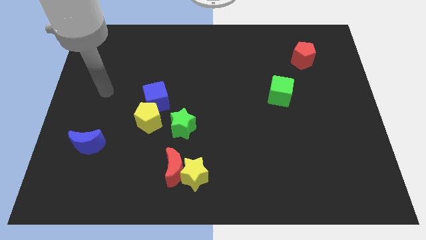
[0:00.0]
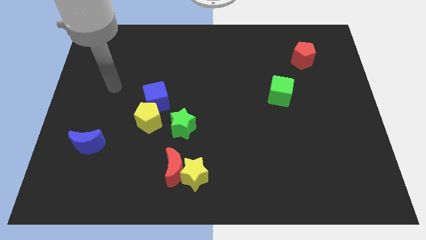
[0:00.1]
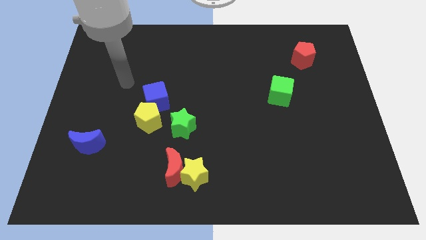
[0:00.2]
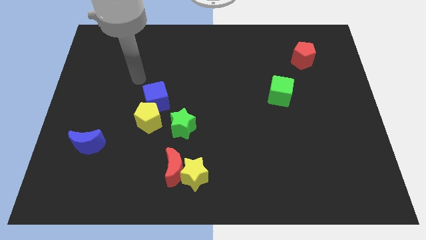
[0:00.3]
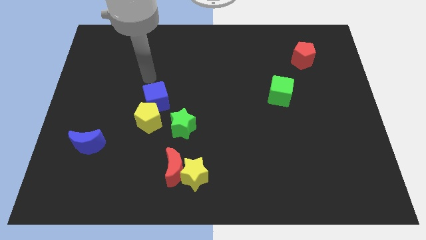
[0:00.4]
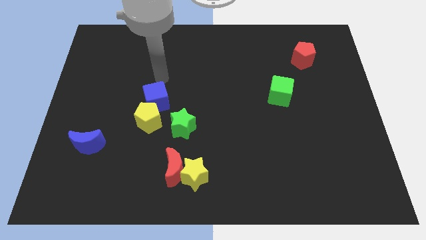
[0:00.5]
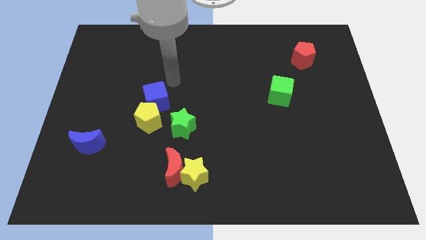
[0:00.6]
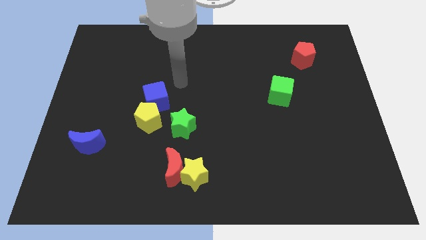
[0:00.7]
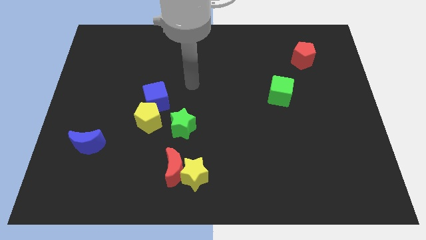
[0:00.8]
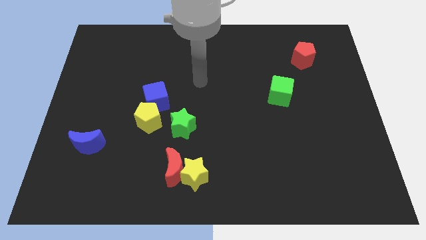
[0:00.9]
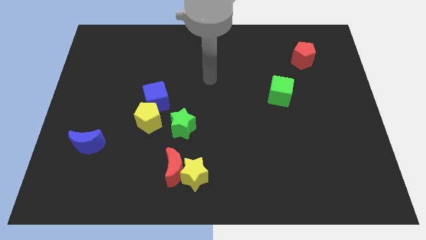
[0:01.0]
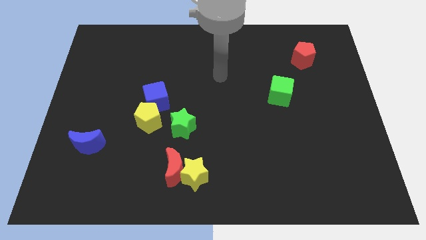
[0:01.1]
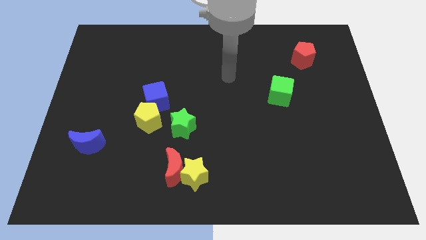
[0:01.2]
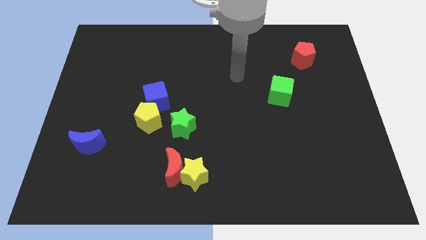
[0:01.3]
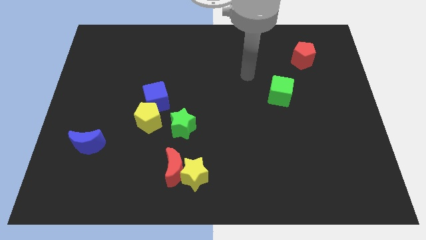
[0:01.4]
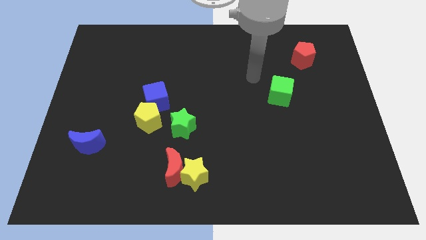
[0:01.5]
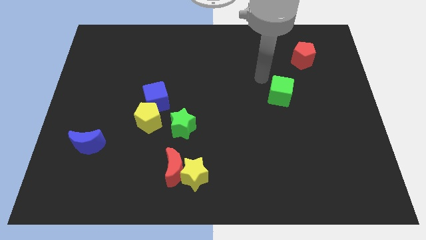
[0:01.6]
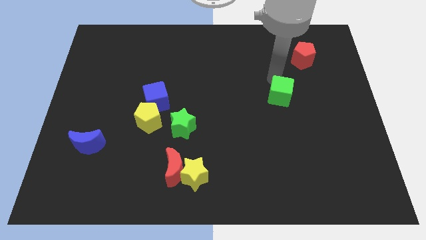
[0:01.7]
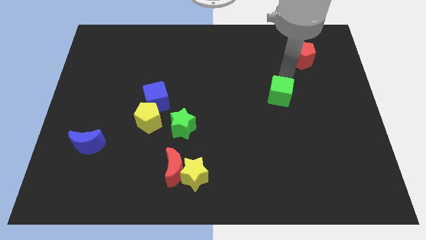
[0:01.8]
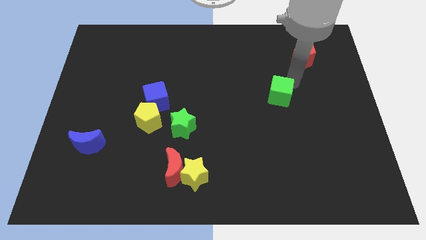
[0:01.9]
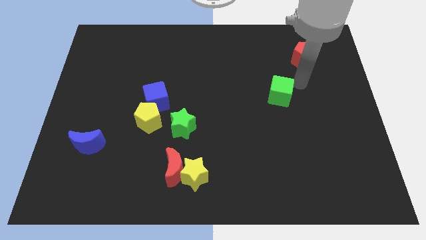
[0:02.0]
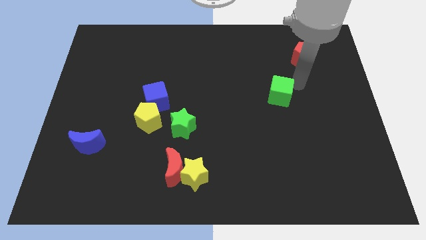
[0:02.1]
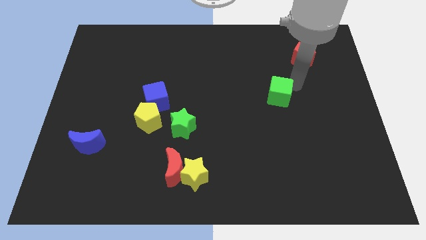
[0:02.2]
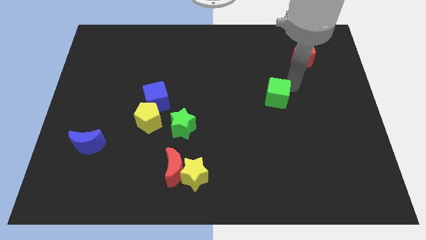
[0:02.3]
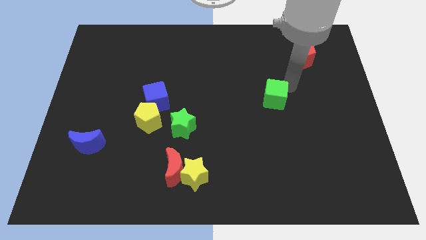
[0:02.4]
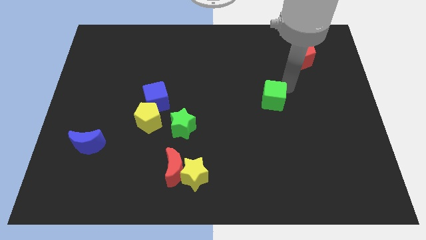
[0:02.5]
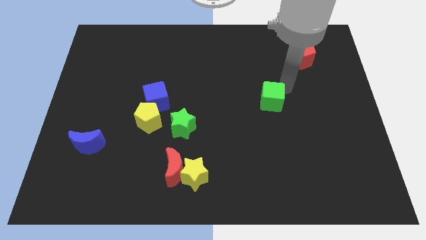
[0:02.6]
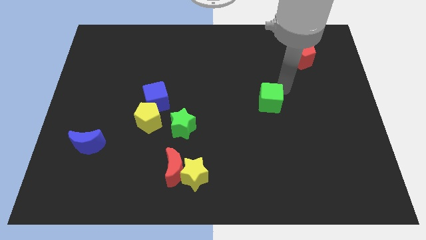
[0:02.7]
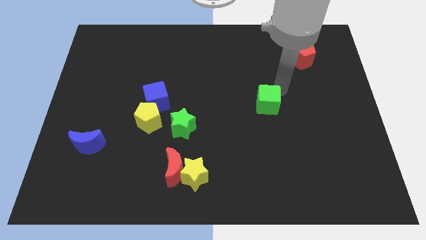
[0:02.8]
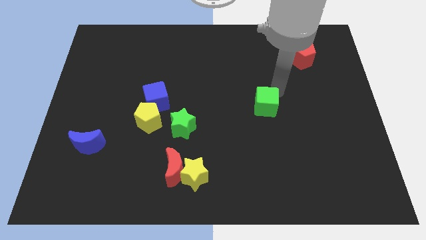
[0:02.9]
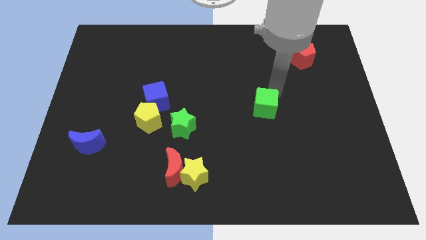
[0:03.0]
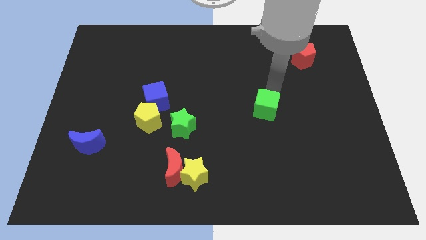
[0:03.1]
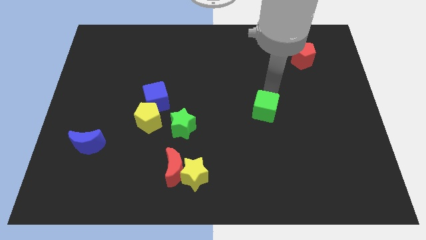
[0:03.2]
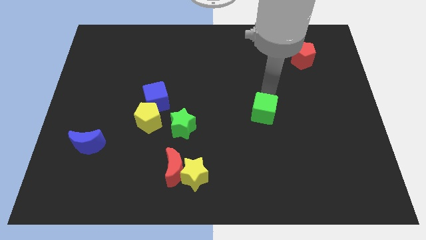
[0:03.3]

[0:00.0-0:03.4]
push the green cube down and left a little

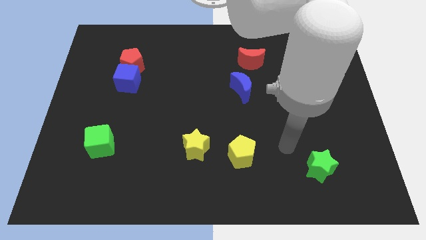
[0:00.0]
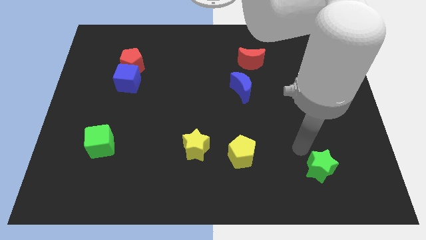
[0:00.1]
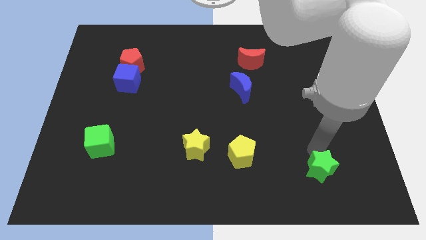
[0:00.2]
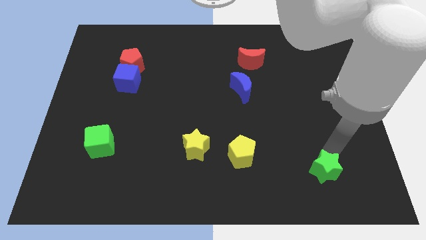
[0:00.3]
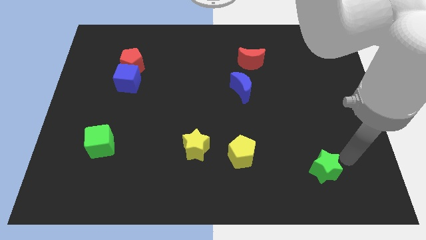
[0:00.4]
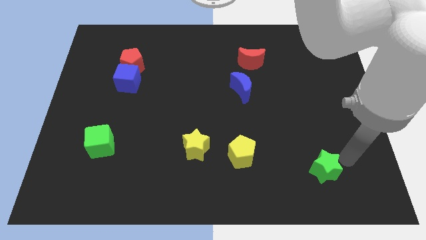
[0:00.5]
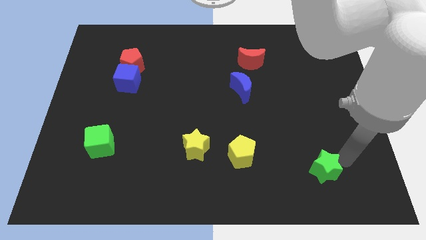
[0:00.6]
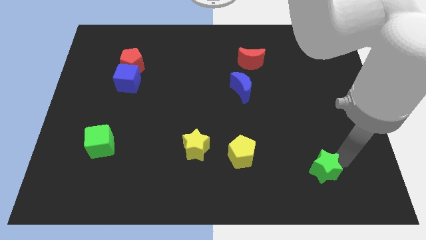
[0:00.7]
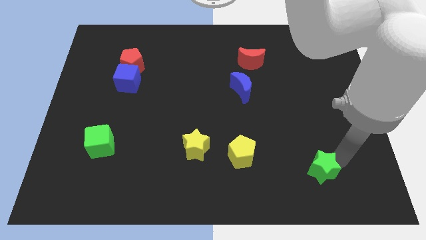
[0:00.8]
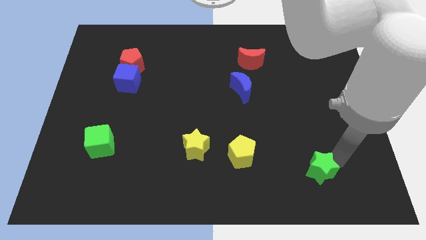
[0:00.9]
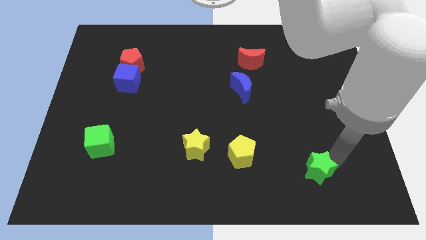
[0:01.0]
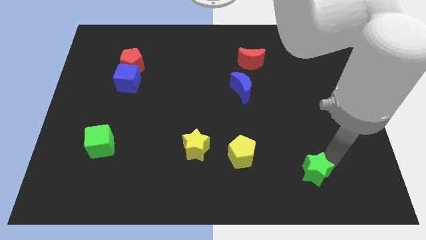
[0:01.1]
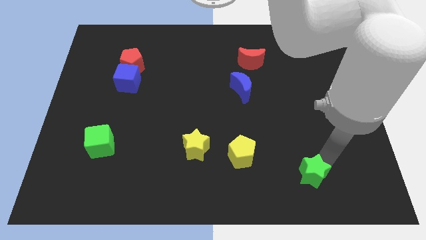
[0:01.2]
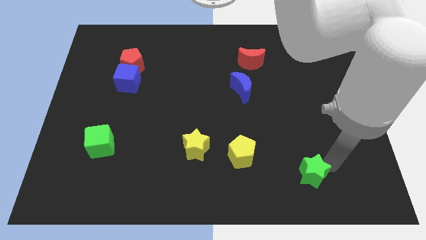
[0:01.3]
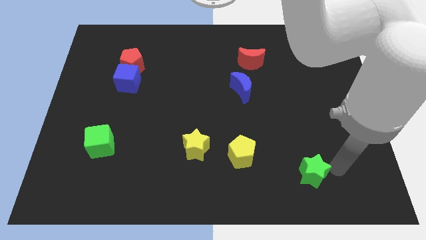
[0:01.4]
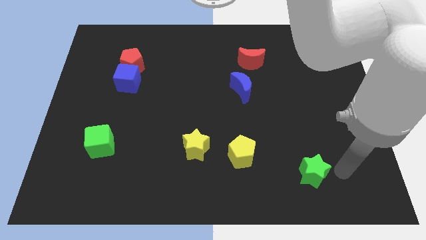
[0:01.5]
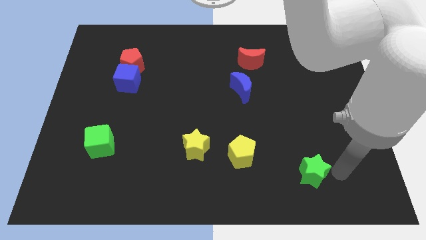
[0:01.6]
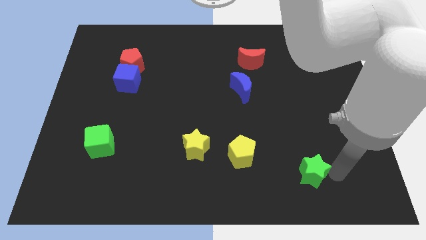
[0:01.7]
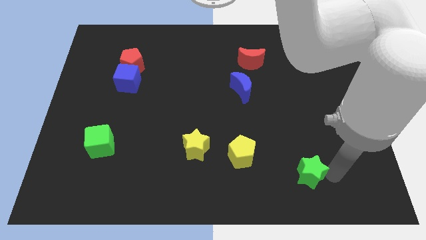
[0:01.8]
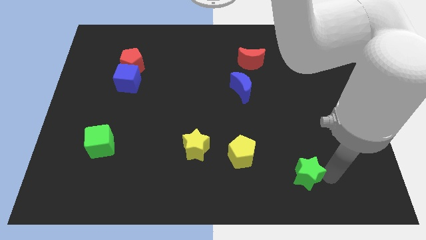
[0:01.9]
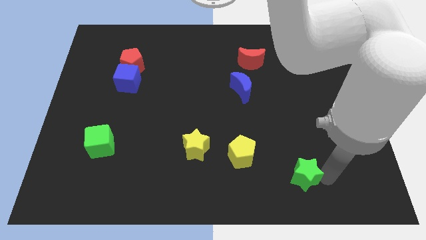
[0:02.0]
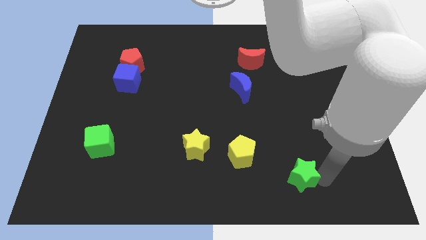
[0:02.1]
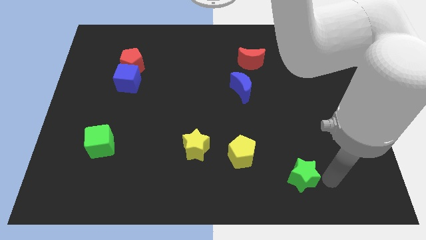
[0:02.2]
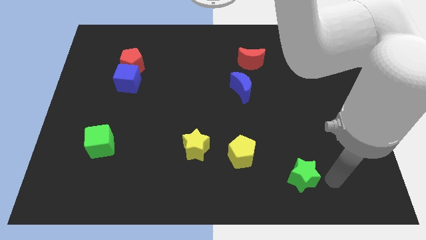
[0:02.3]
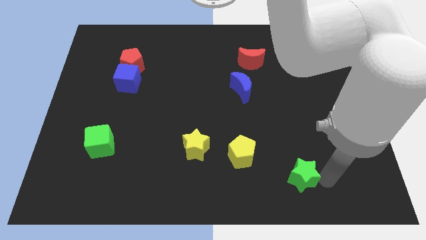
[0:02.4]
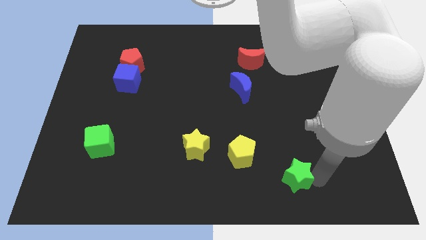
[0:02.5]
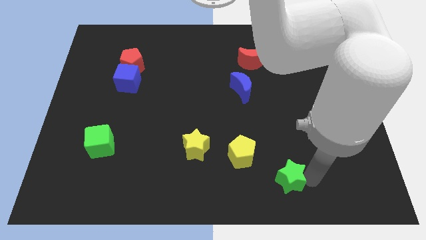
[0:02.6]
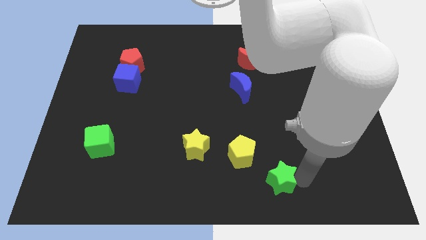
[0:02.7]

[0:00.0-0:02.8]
move the green star to the left somewhat

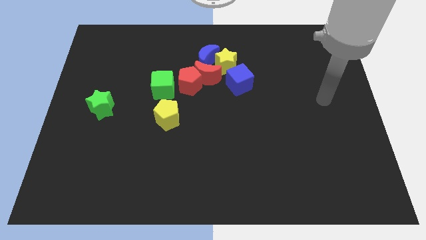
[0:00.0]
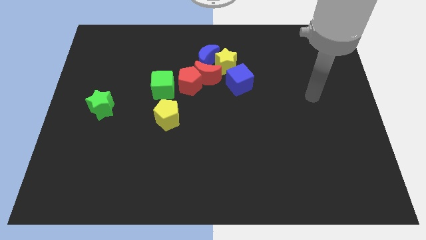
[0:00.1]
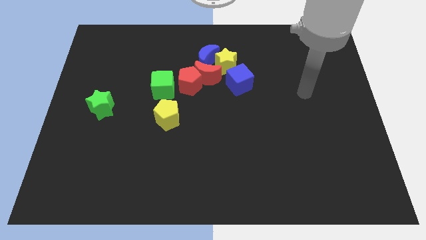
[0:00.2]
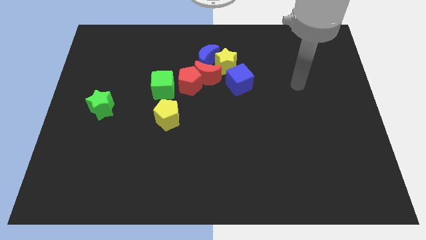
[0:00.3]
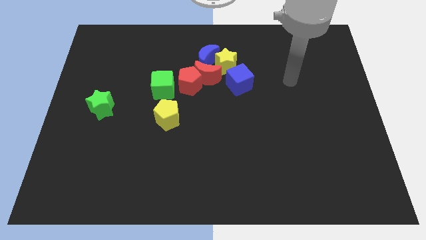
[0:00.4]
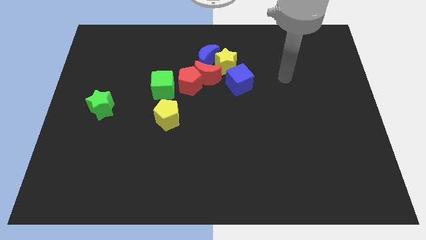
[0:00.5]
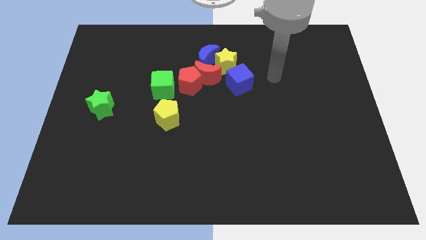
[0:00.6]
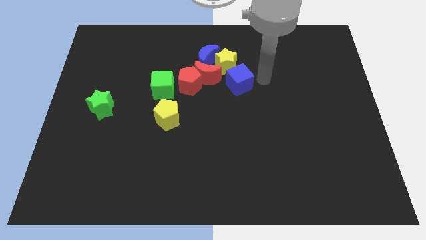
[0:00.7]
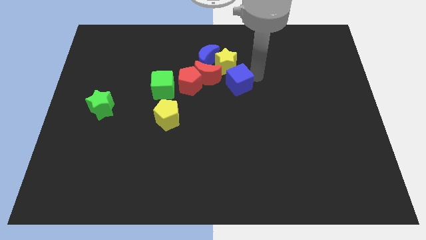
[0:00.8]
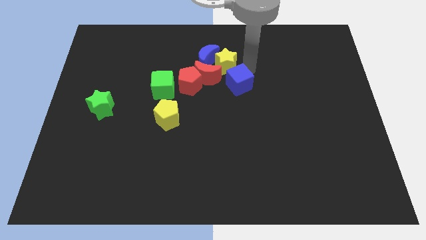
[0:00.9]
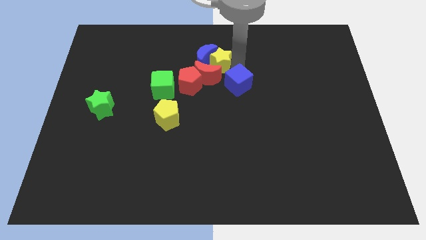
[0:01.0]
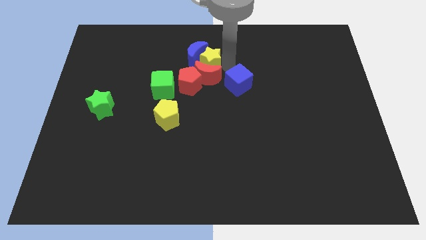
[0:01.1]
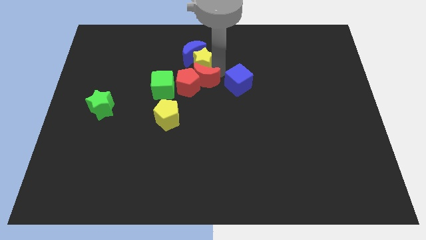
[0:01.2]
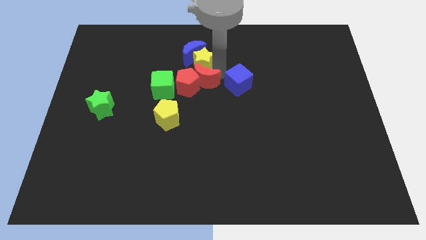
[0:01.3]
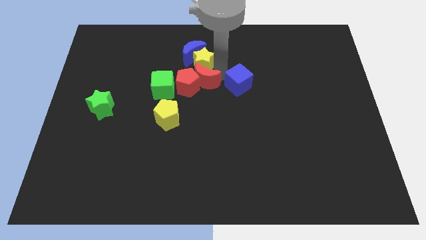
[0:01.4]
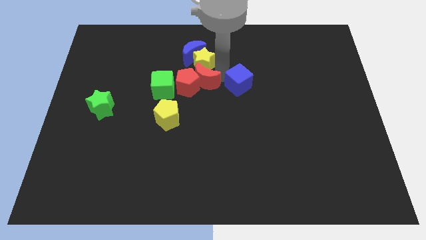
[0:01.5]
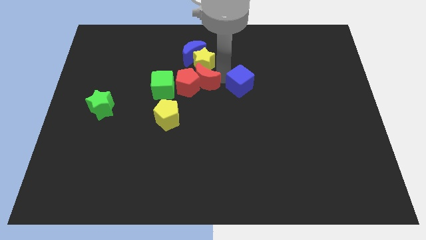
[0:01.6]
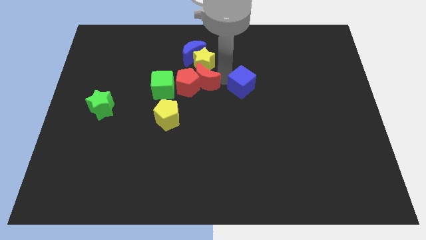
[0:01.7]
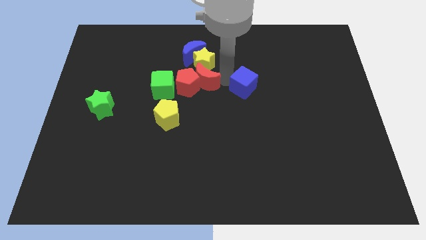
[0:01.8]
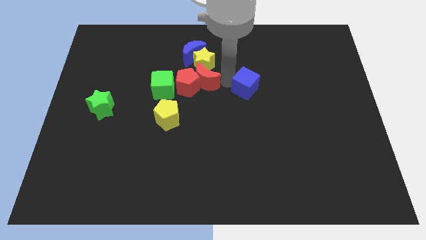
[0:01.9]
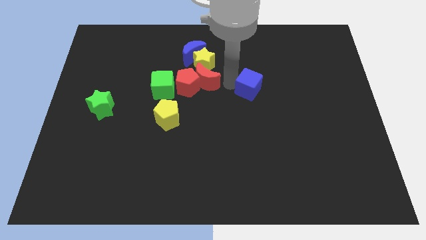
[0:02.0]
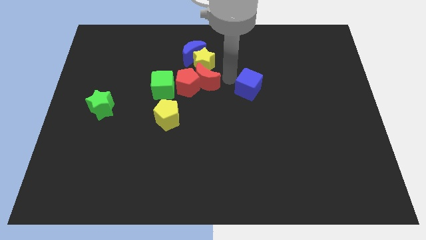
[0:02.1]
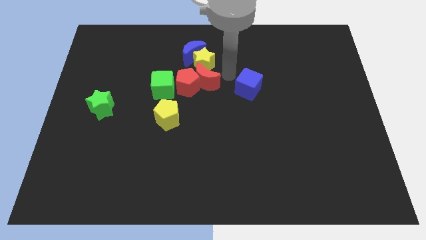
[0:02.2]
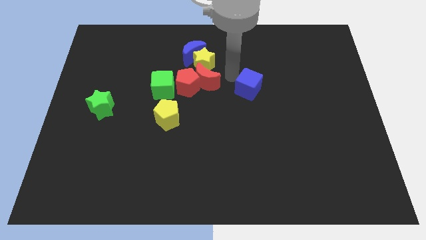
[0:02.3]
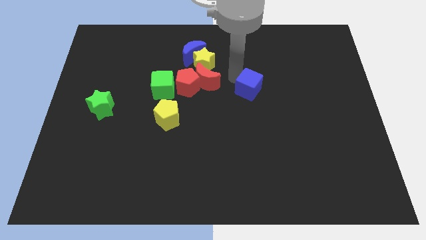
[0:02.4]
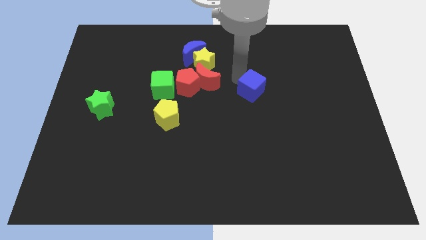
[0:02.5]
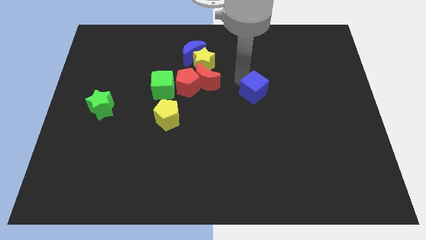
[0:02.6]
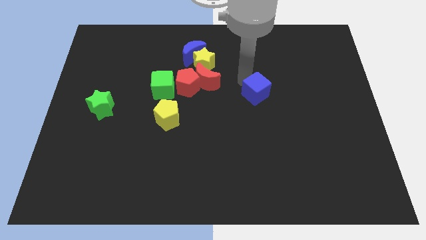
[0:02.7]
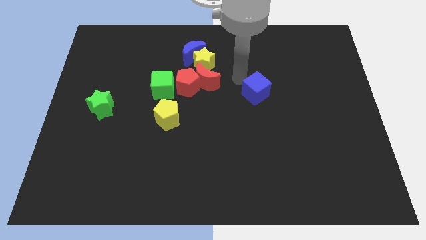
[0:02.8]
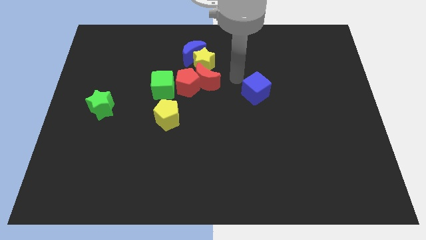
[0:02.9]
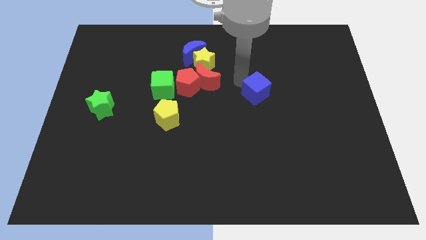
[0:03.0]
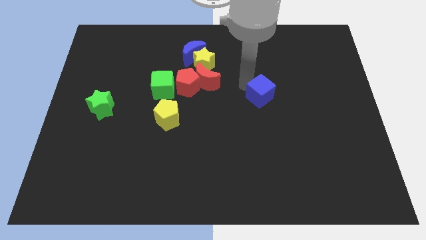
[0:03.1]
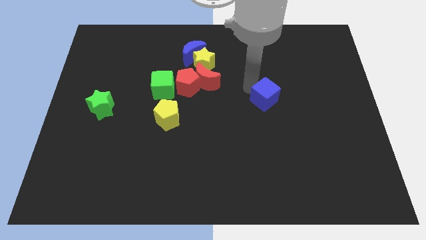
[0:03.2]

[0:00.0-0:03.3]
push the blue cube down and right somewhat
